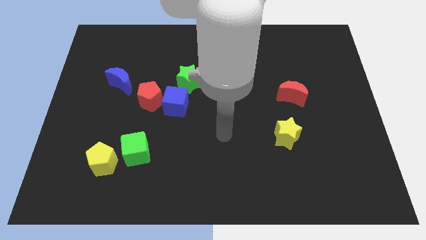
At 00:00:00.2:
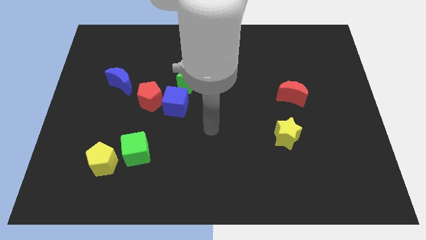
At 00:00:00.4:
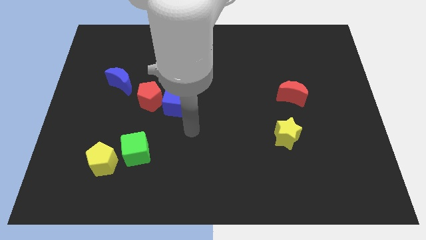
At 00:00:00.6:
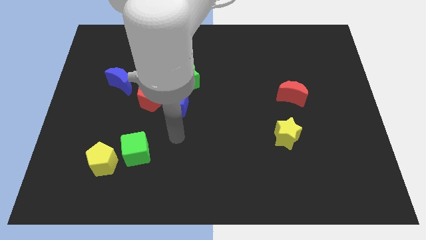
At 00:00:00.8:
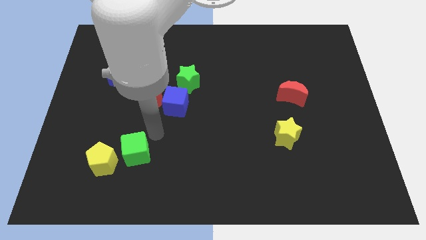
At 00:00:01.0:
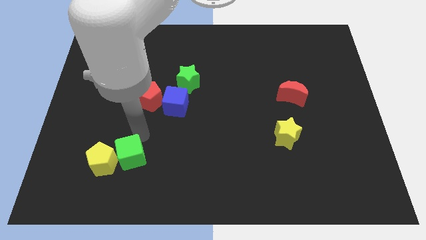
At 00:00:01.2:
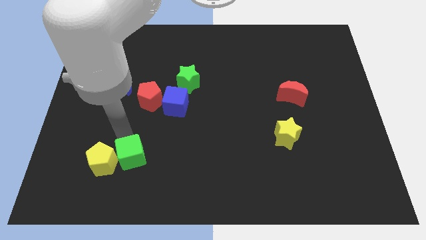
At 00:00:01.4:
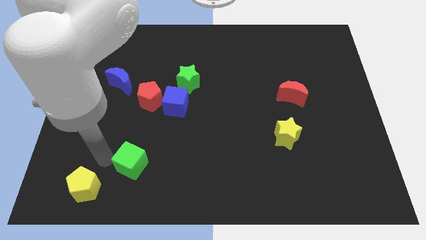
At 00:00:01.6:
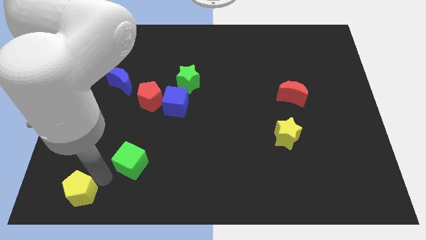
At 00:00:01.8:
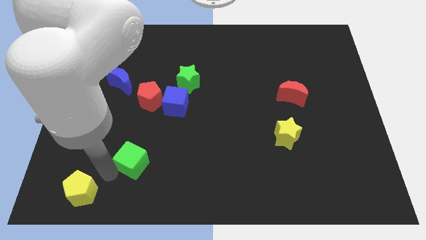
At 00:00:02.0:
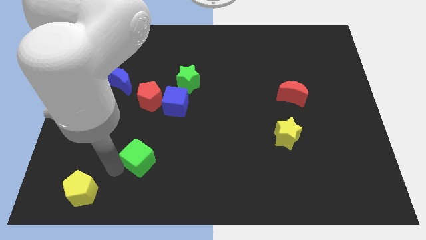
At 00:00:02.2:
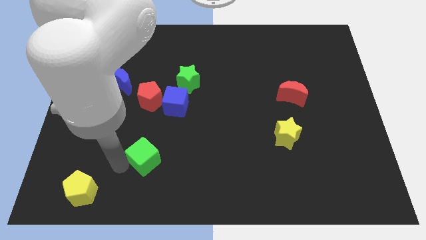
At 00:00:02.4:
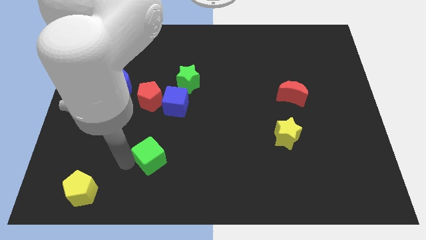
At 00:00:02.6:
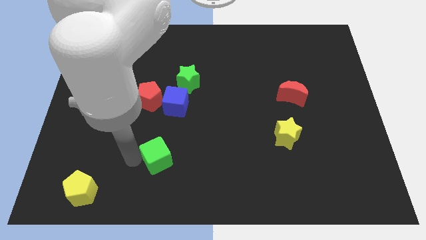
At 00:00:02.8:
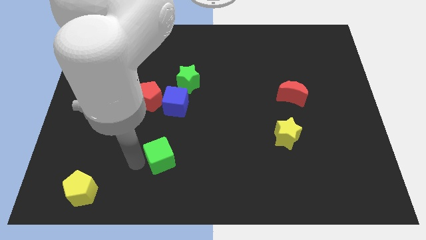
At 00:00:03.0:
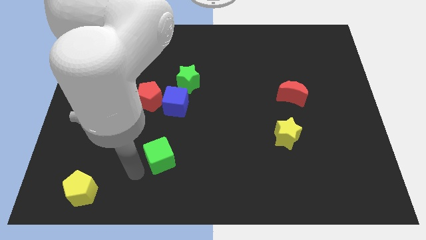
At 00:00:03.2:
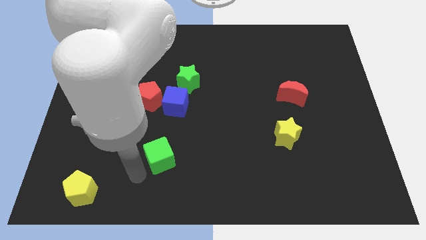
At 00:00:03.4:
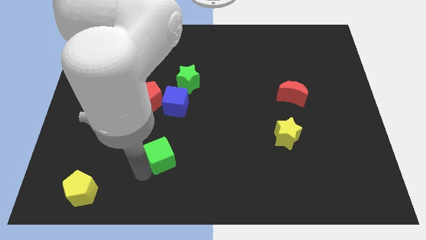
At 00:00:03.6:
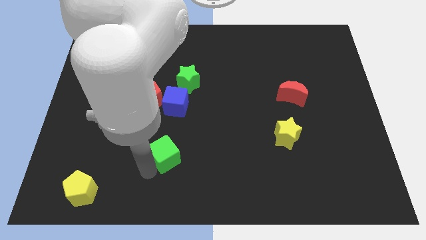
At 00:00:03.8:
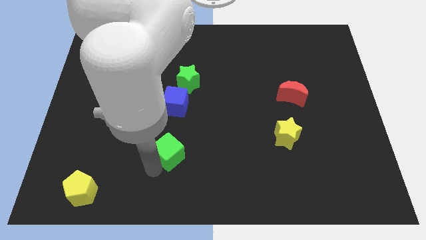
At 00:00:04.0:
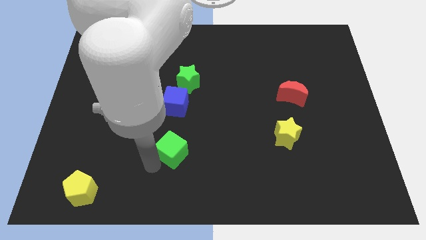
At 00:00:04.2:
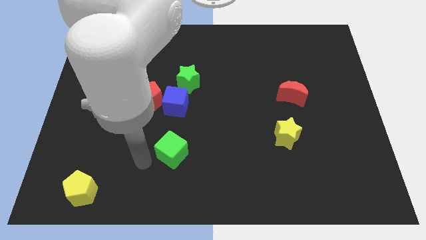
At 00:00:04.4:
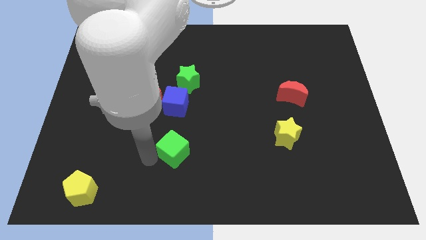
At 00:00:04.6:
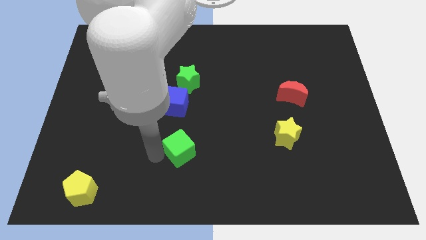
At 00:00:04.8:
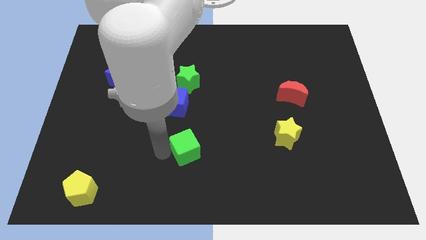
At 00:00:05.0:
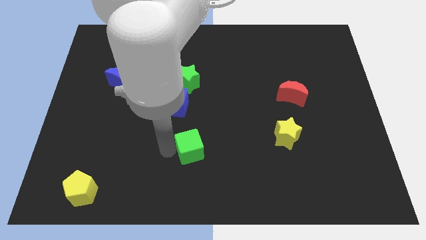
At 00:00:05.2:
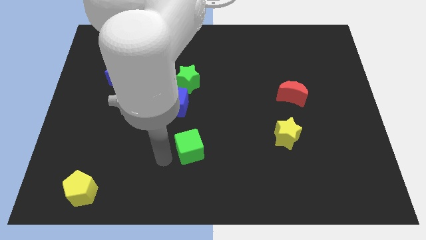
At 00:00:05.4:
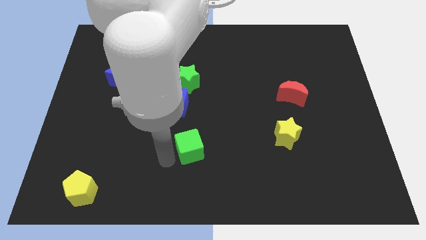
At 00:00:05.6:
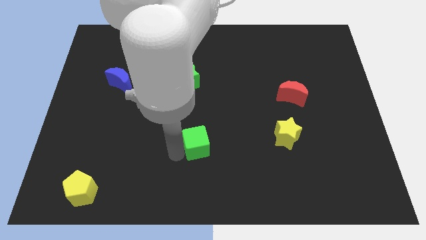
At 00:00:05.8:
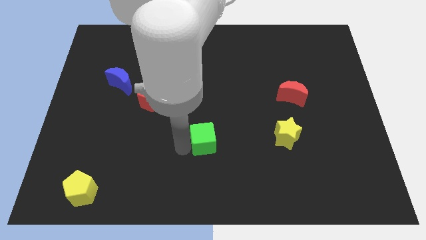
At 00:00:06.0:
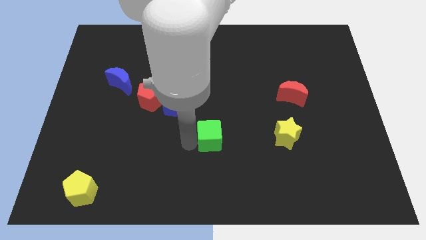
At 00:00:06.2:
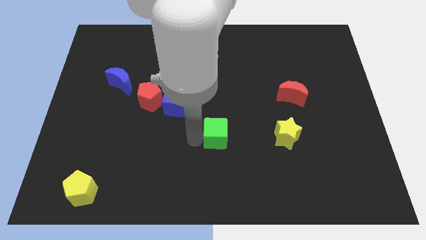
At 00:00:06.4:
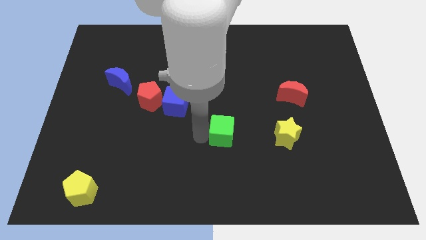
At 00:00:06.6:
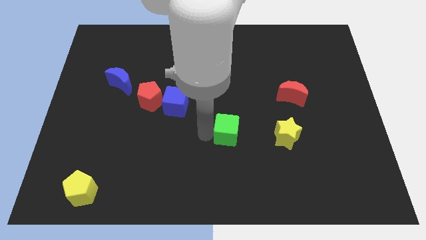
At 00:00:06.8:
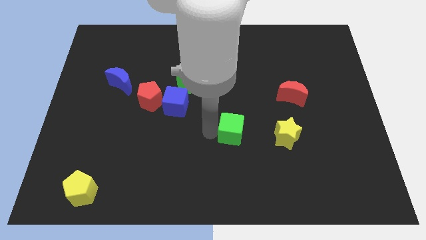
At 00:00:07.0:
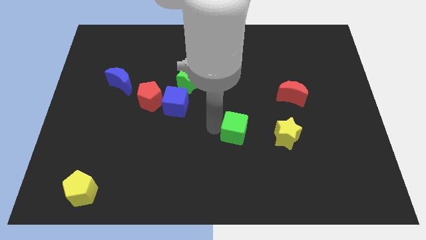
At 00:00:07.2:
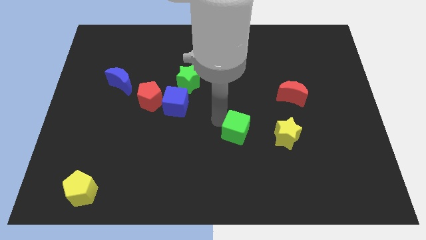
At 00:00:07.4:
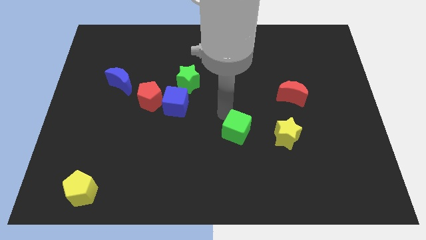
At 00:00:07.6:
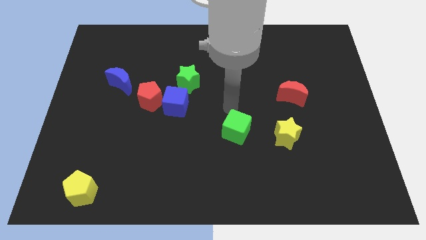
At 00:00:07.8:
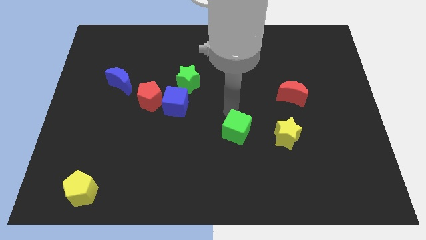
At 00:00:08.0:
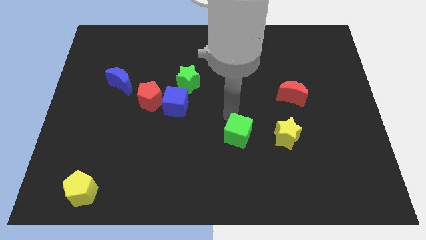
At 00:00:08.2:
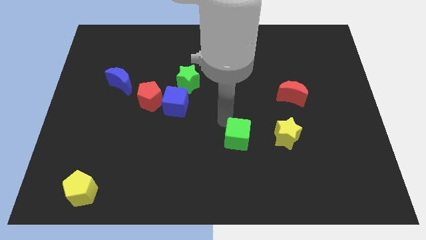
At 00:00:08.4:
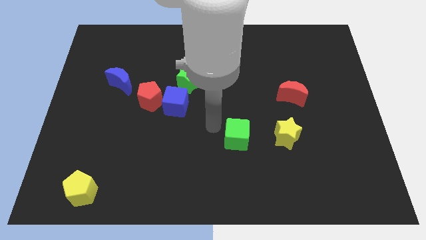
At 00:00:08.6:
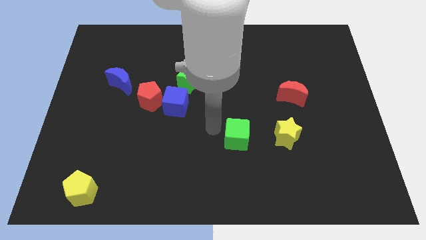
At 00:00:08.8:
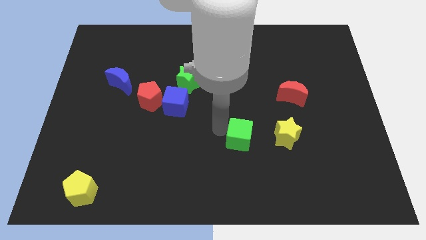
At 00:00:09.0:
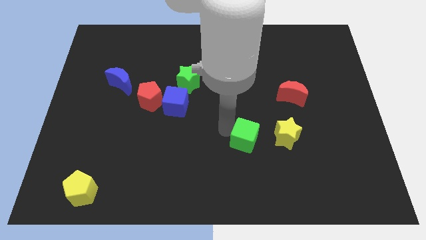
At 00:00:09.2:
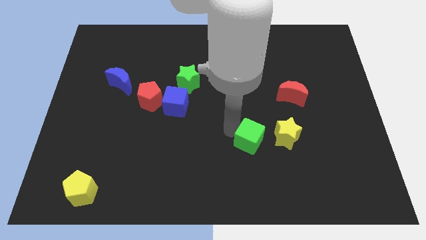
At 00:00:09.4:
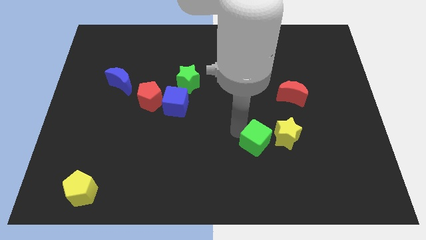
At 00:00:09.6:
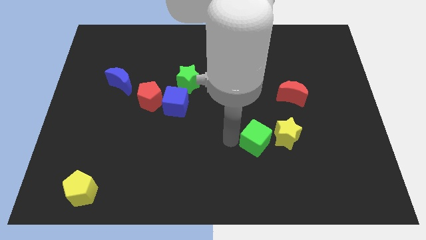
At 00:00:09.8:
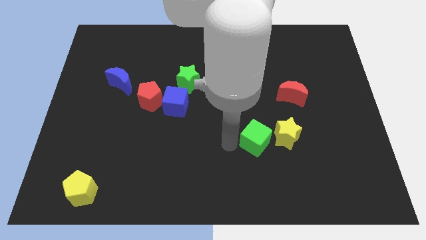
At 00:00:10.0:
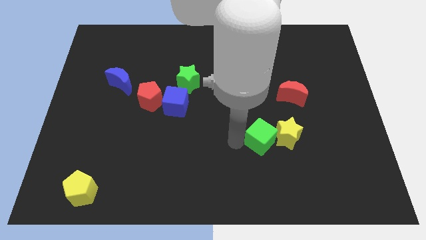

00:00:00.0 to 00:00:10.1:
put the green cube close to the yellow star

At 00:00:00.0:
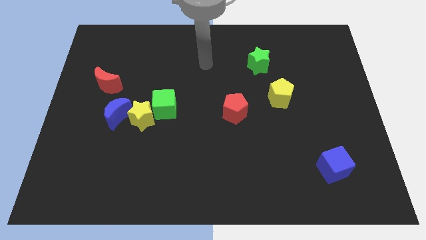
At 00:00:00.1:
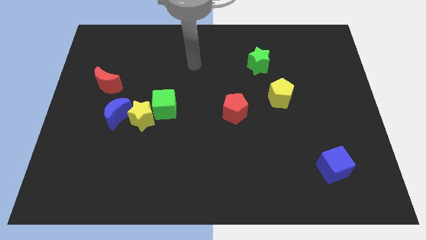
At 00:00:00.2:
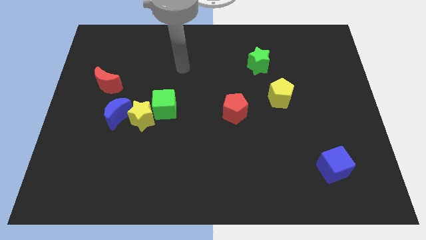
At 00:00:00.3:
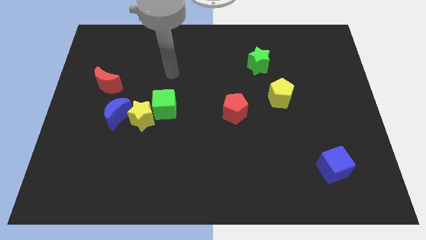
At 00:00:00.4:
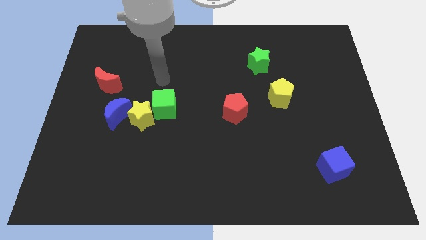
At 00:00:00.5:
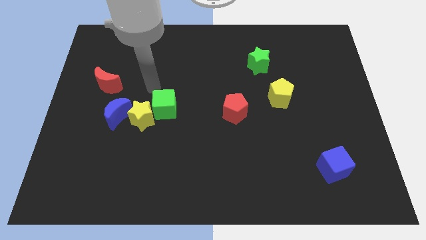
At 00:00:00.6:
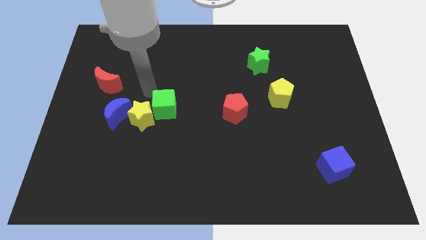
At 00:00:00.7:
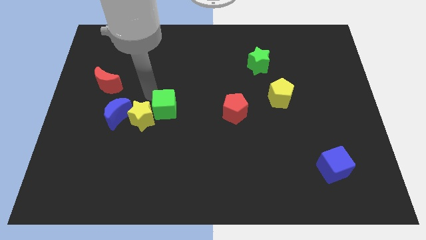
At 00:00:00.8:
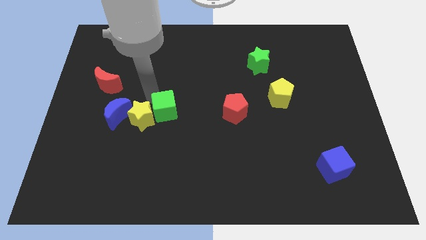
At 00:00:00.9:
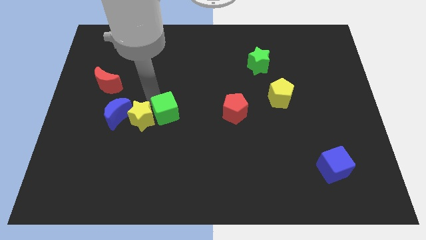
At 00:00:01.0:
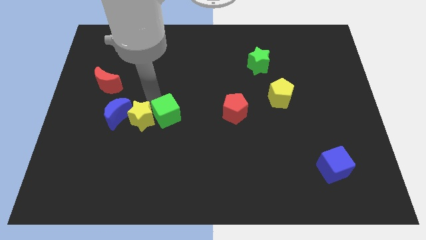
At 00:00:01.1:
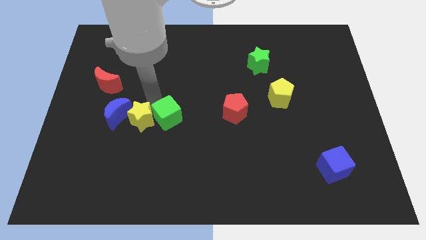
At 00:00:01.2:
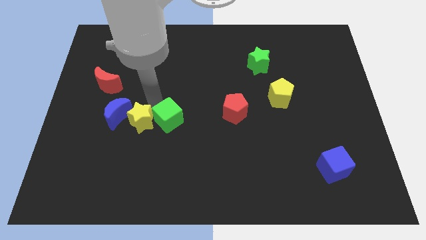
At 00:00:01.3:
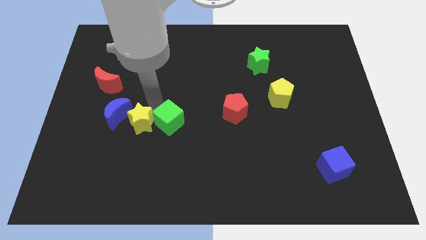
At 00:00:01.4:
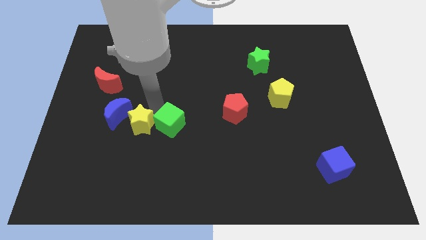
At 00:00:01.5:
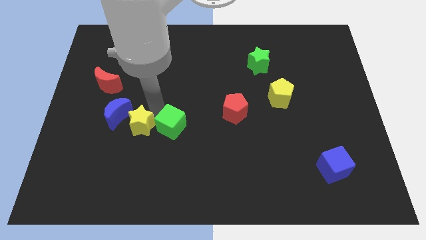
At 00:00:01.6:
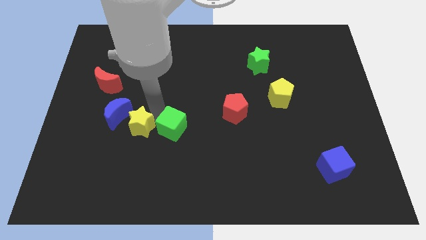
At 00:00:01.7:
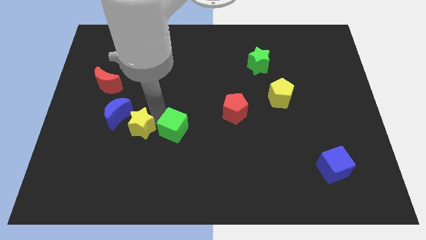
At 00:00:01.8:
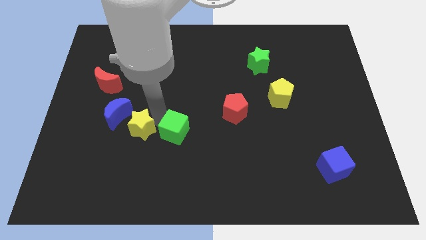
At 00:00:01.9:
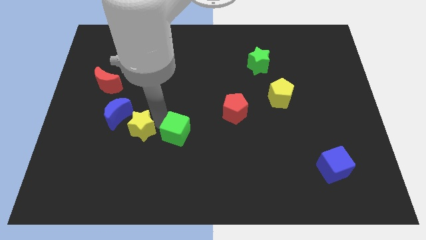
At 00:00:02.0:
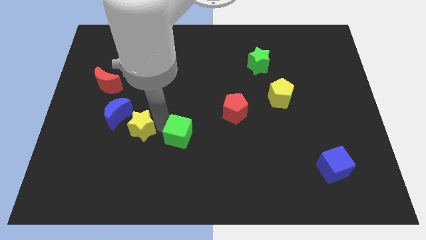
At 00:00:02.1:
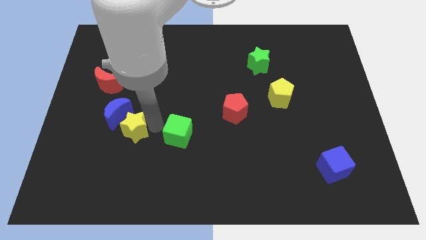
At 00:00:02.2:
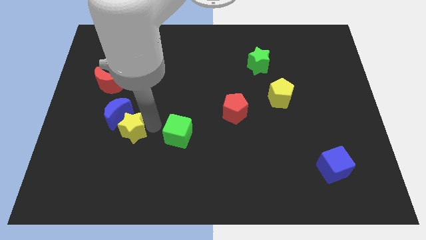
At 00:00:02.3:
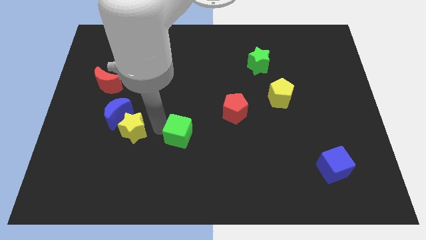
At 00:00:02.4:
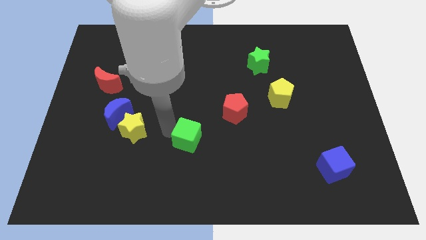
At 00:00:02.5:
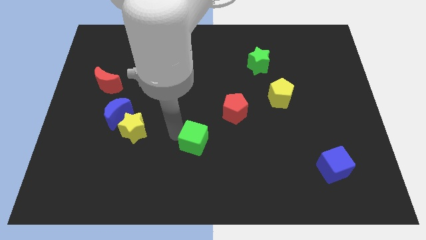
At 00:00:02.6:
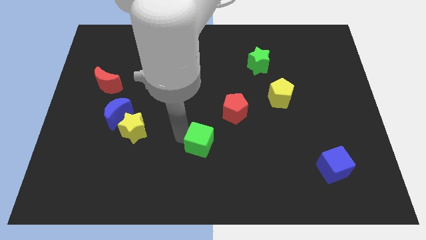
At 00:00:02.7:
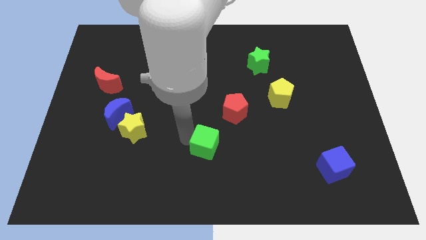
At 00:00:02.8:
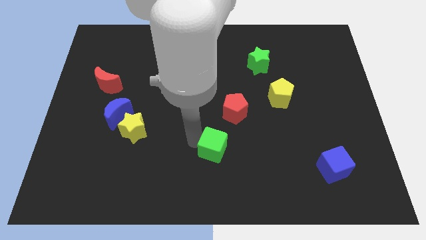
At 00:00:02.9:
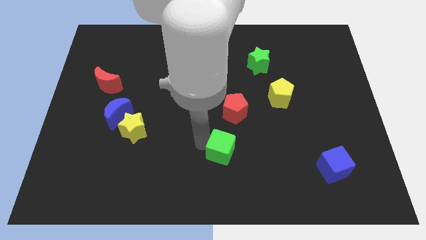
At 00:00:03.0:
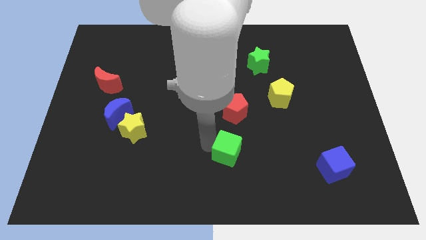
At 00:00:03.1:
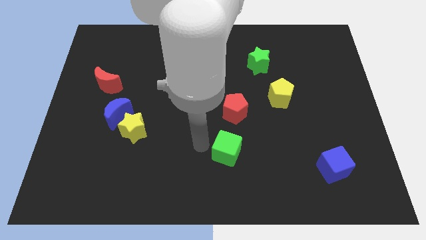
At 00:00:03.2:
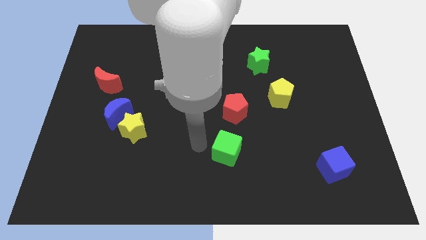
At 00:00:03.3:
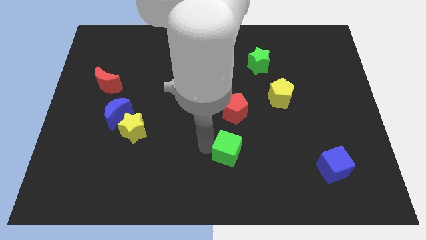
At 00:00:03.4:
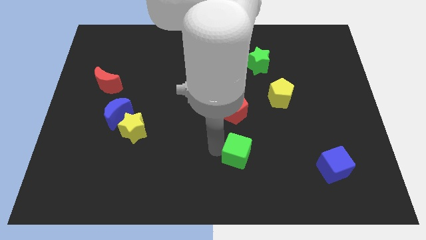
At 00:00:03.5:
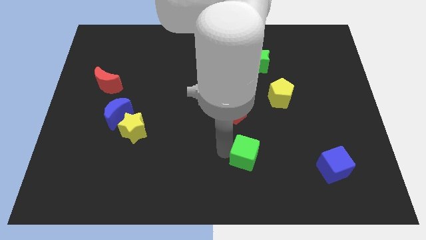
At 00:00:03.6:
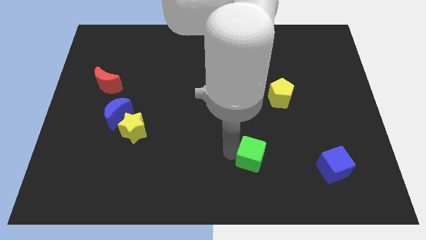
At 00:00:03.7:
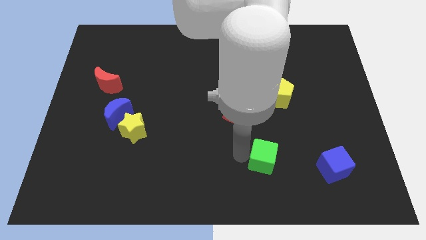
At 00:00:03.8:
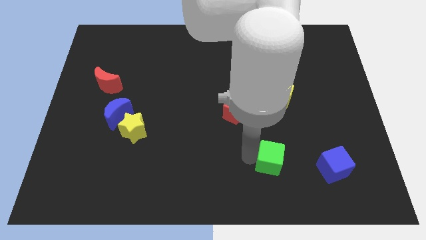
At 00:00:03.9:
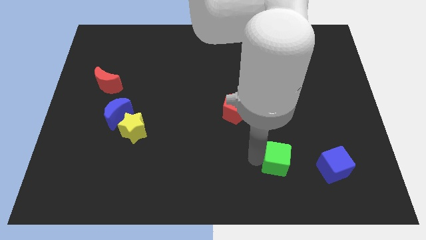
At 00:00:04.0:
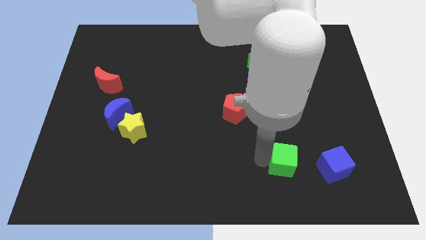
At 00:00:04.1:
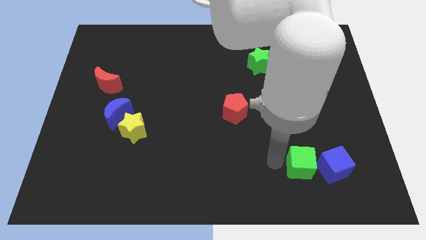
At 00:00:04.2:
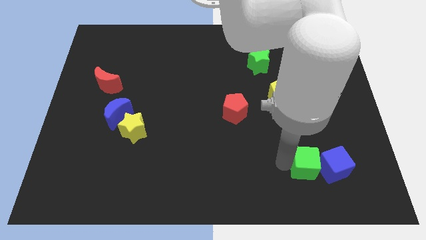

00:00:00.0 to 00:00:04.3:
slide the green cube to the blue cube
